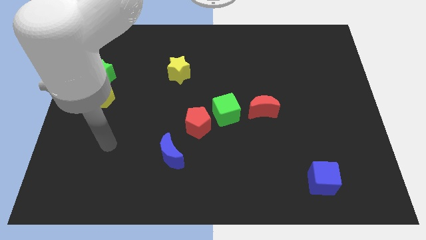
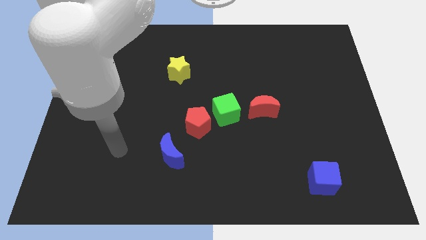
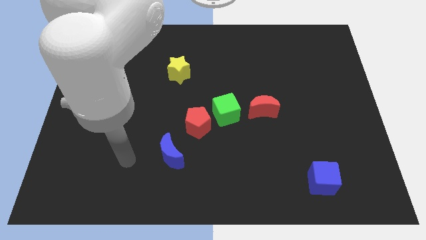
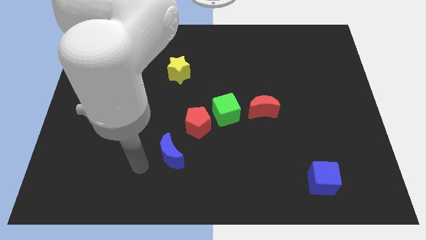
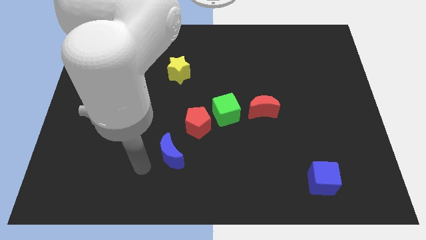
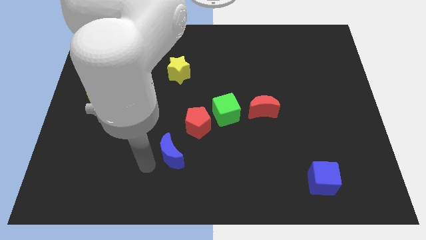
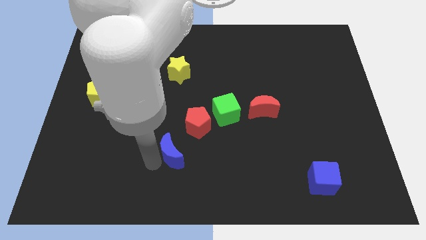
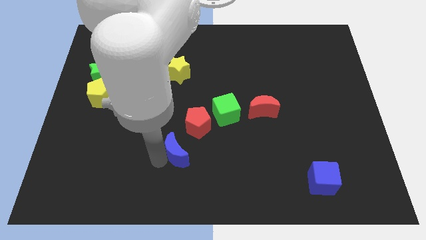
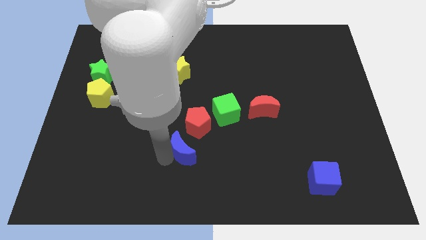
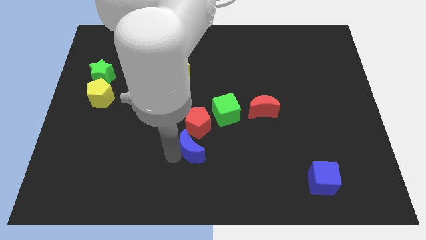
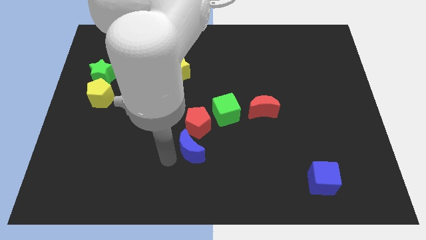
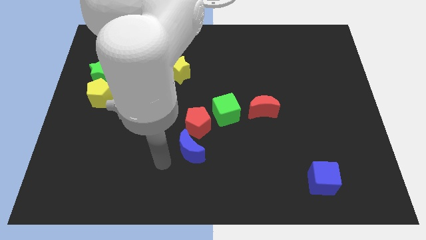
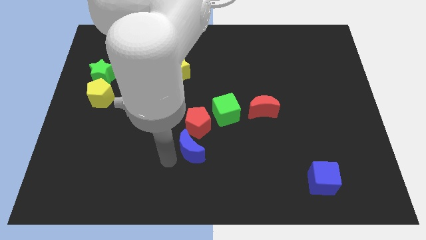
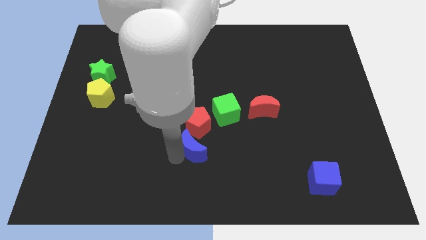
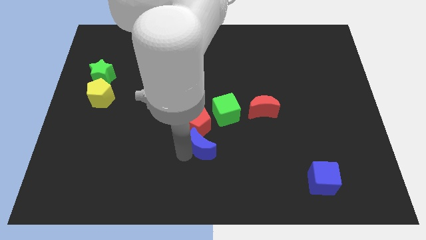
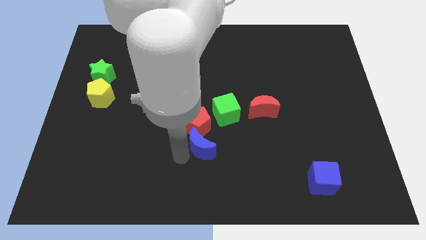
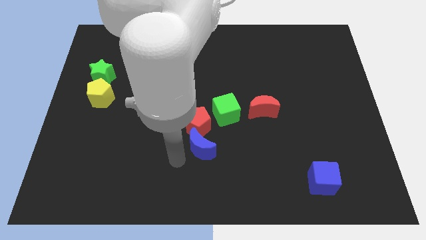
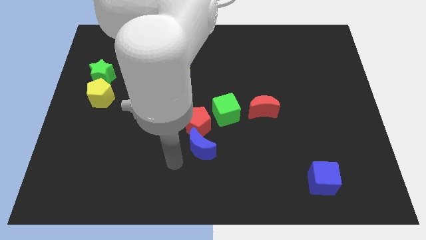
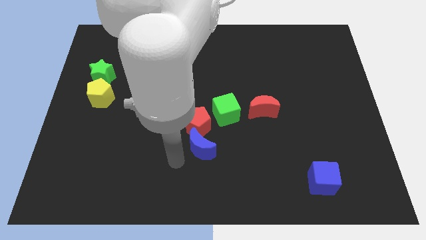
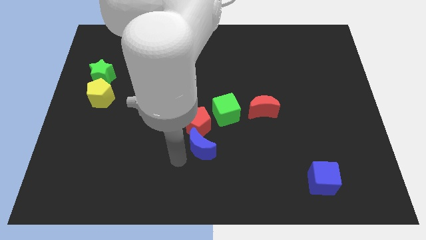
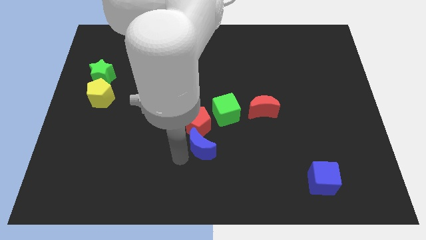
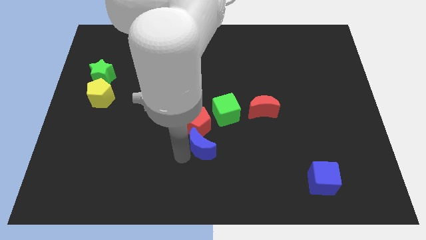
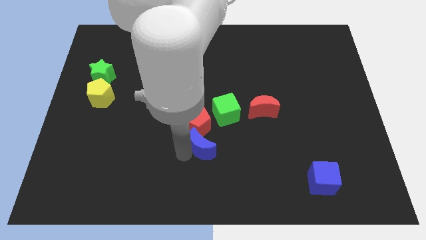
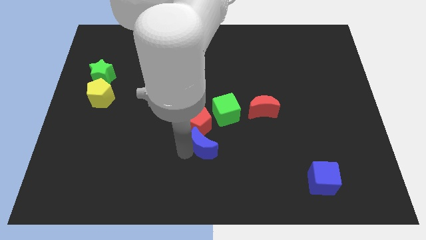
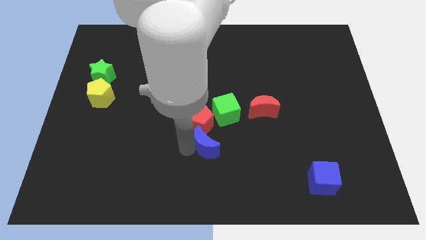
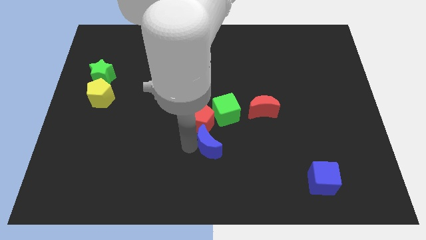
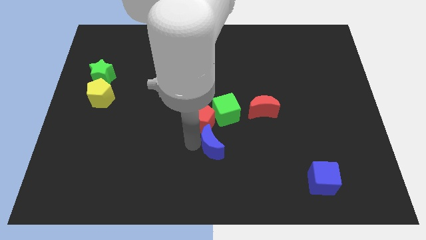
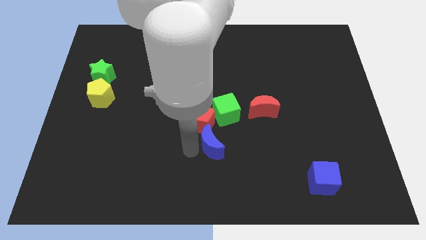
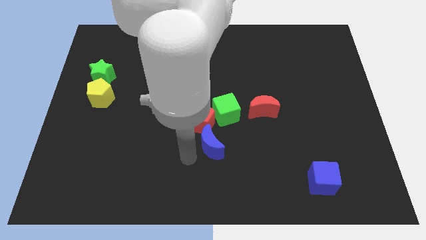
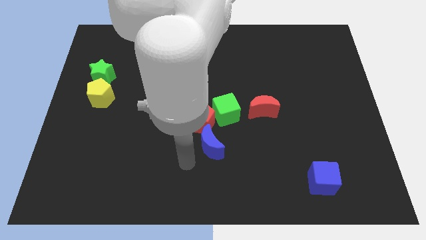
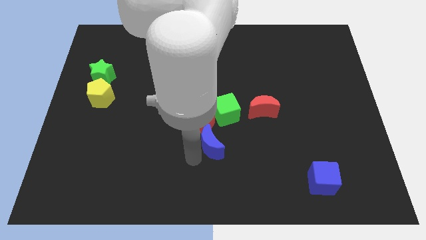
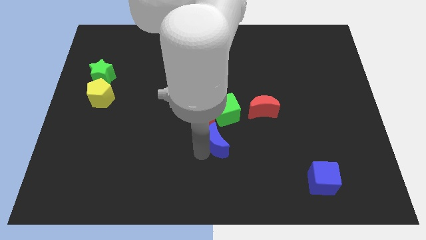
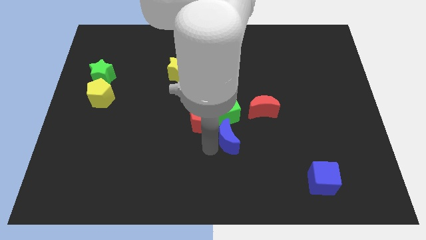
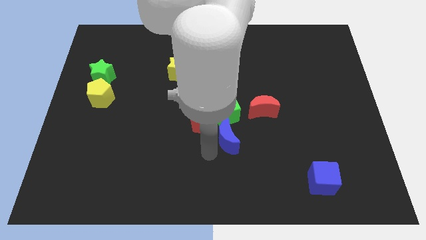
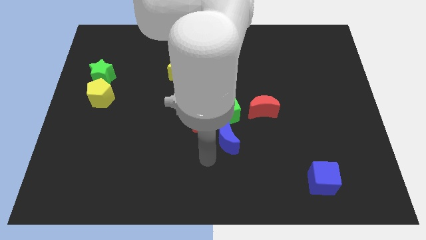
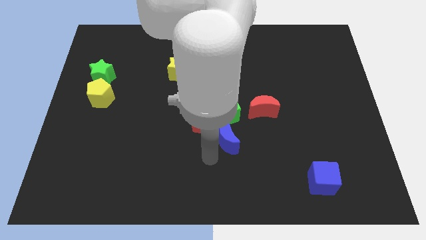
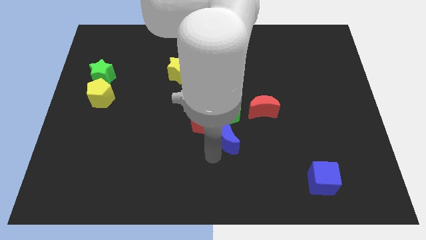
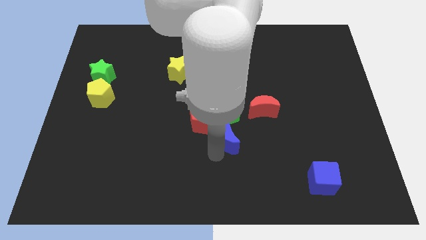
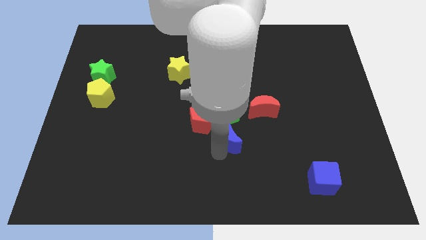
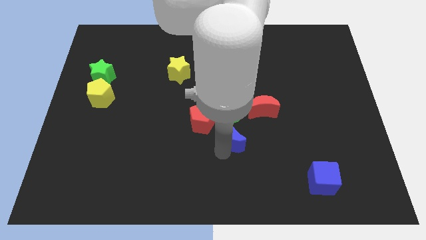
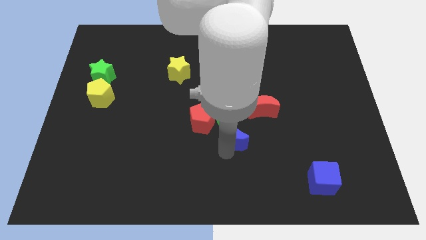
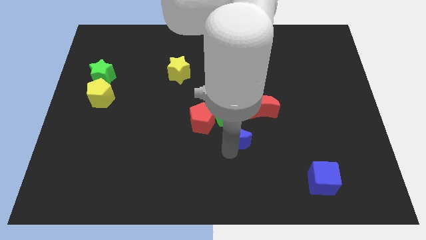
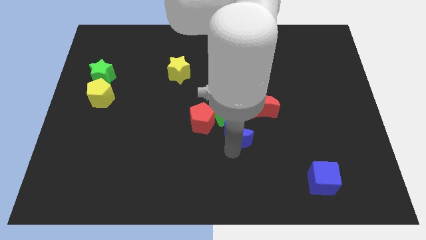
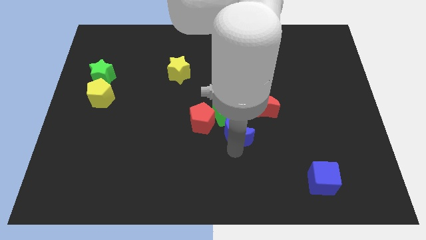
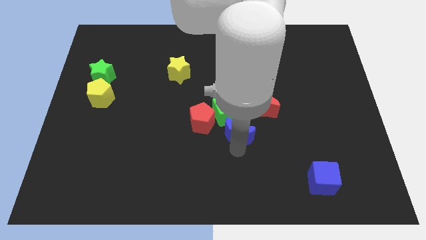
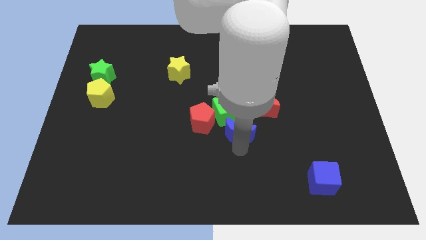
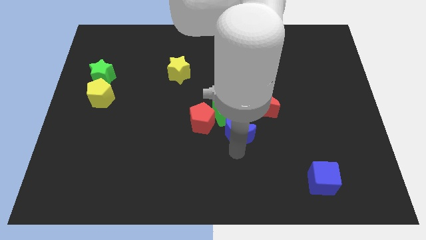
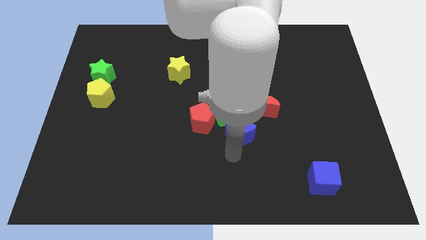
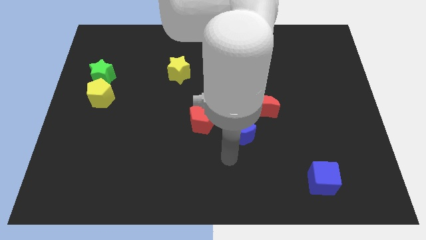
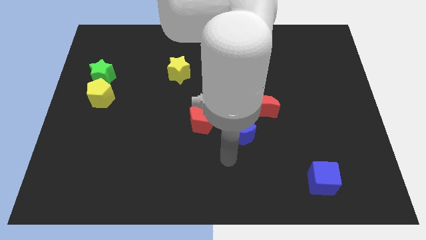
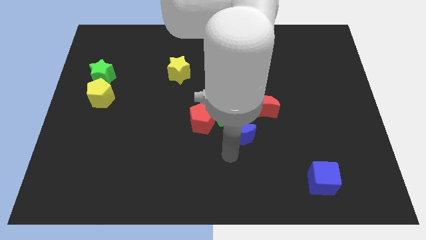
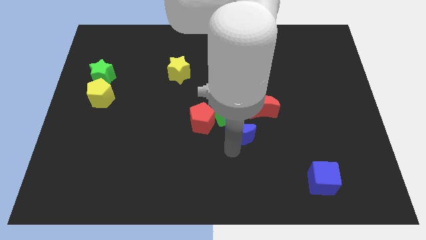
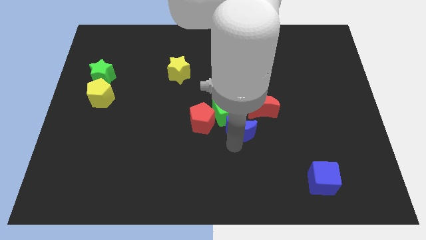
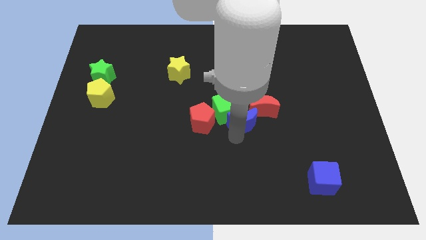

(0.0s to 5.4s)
slide the blue moon close to the red moon
